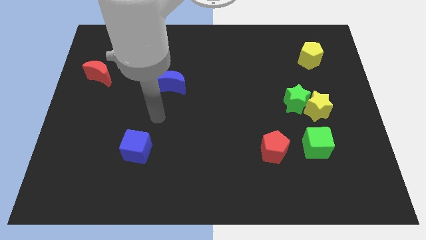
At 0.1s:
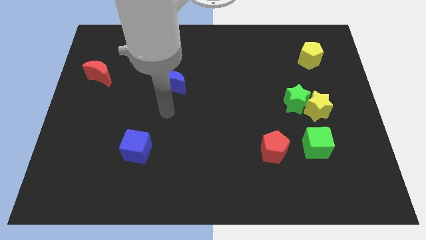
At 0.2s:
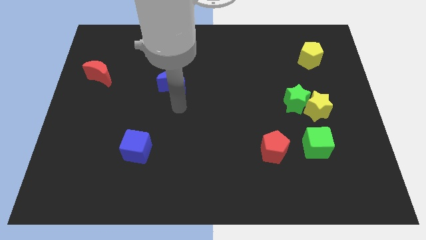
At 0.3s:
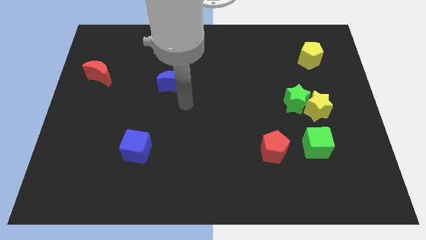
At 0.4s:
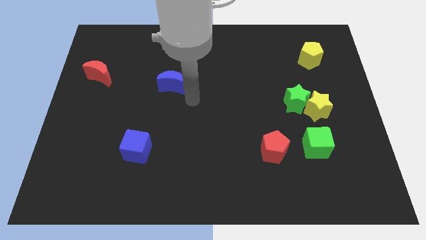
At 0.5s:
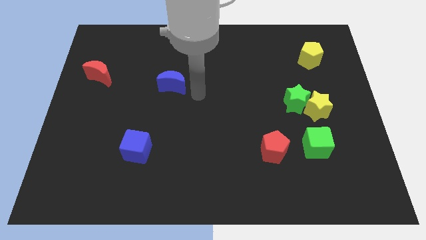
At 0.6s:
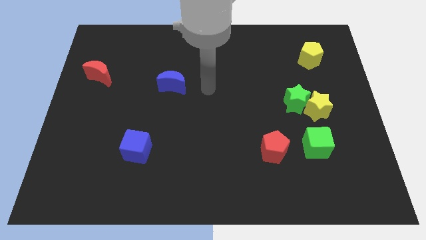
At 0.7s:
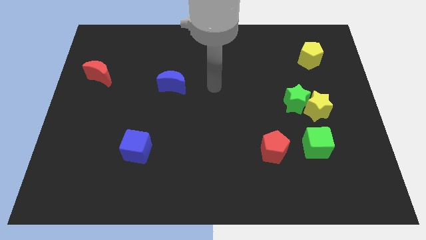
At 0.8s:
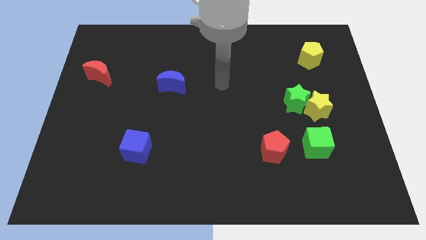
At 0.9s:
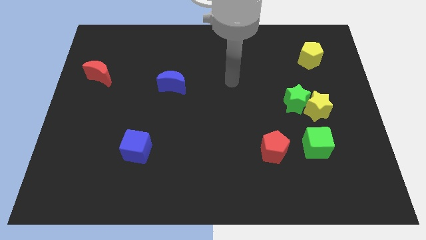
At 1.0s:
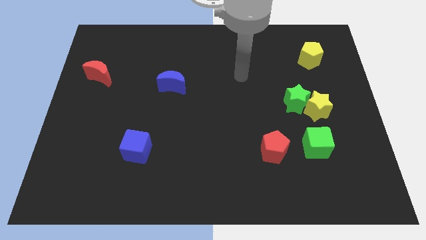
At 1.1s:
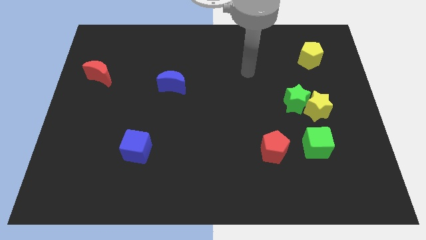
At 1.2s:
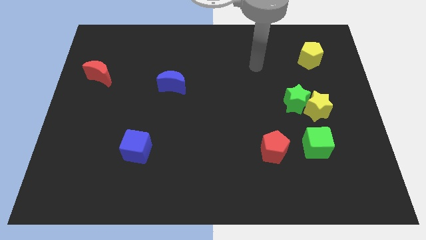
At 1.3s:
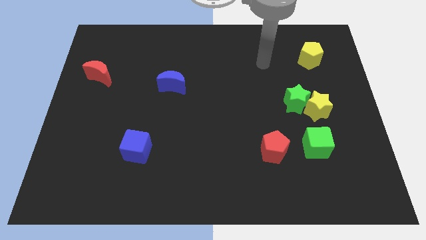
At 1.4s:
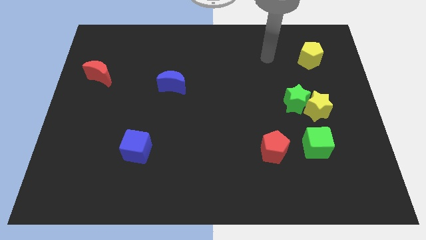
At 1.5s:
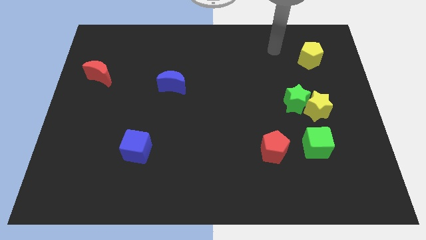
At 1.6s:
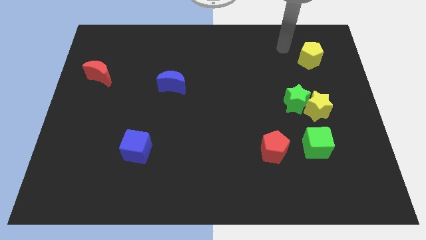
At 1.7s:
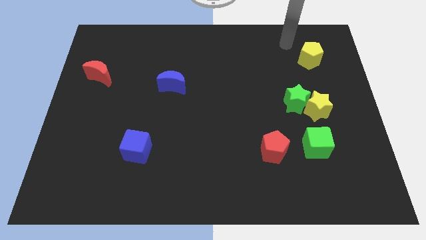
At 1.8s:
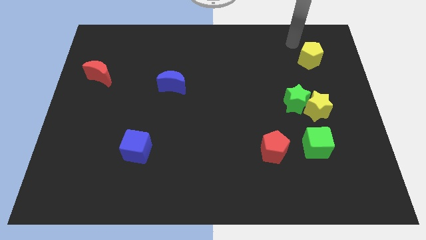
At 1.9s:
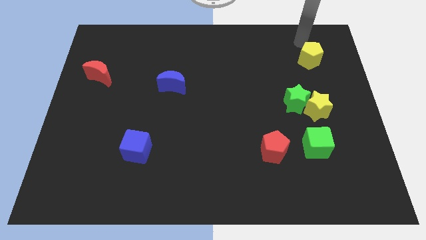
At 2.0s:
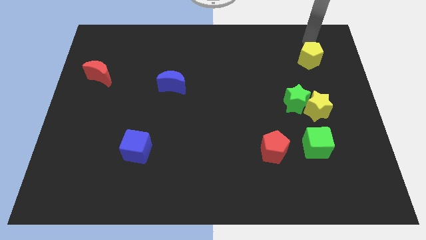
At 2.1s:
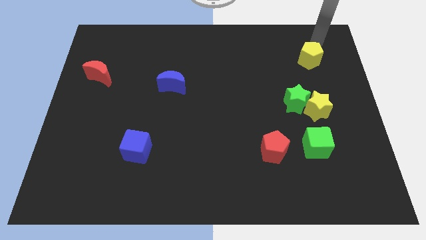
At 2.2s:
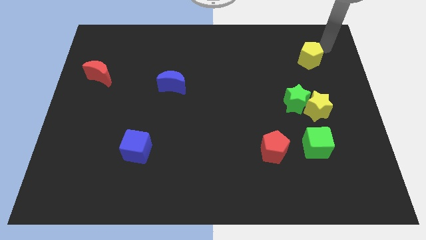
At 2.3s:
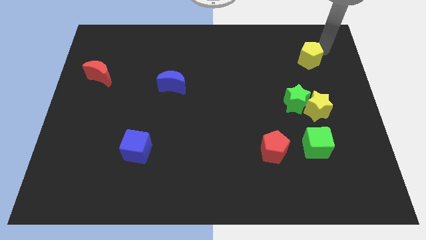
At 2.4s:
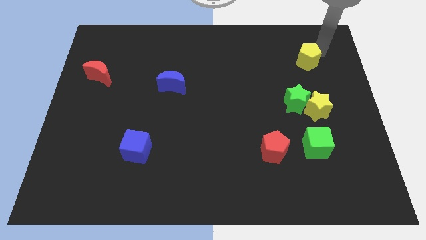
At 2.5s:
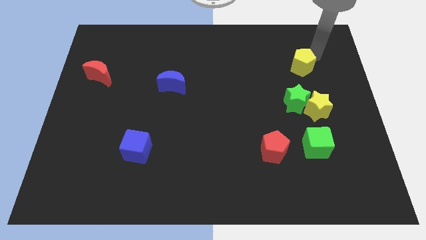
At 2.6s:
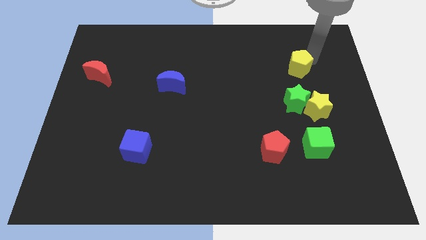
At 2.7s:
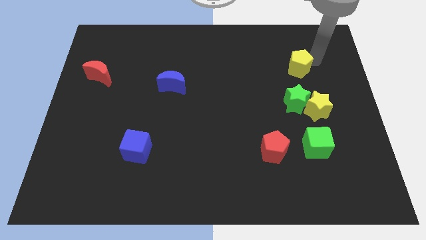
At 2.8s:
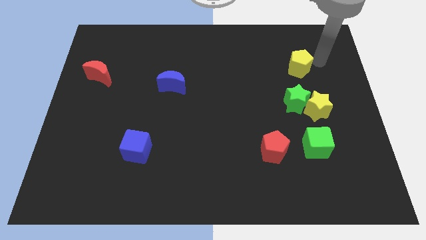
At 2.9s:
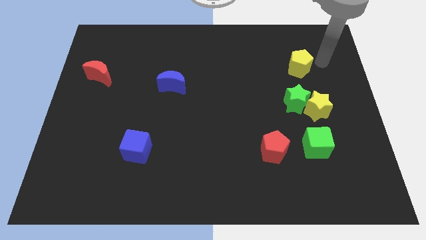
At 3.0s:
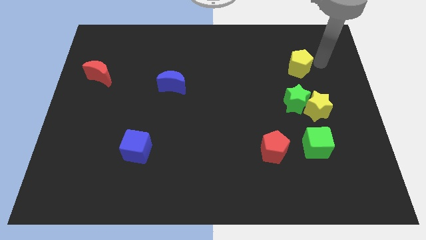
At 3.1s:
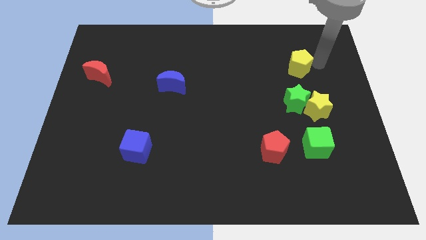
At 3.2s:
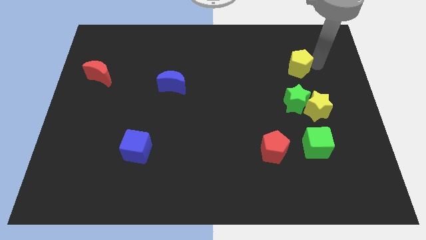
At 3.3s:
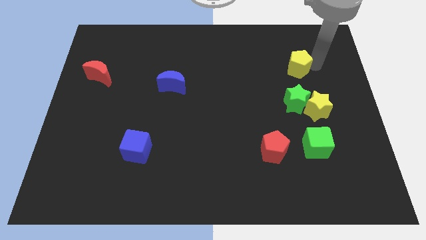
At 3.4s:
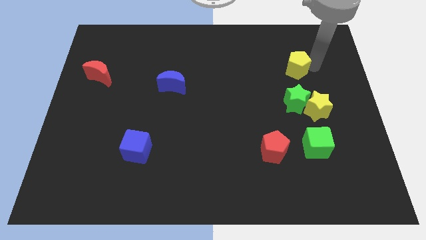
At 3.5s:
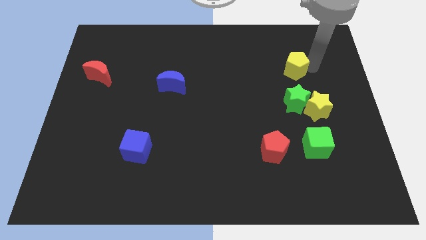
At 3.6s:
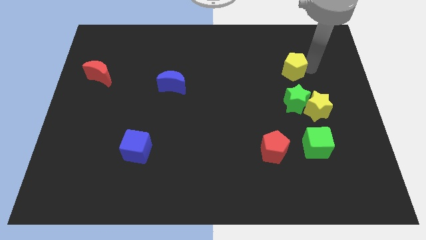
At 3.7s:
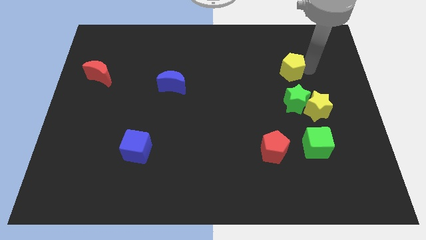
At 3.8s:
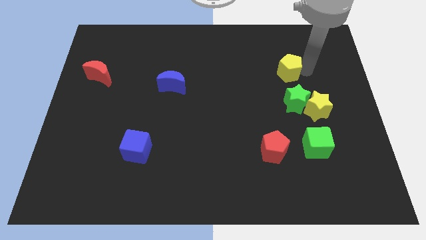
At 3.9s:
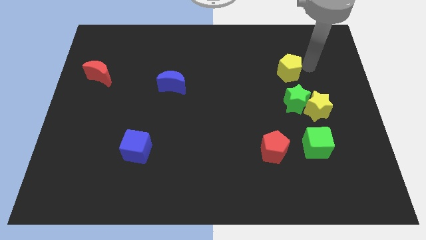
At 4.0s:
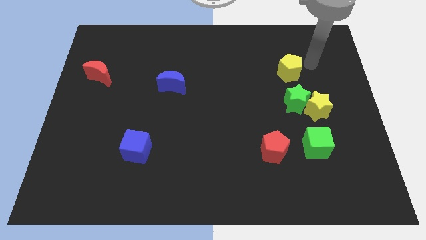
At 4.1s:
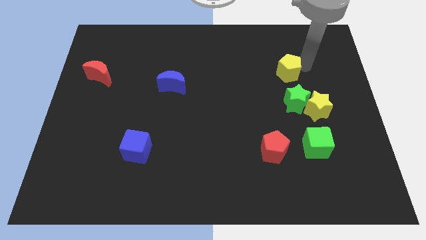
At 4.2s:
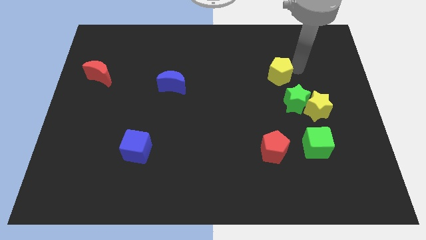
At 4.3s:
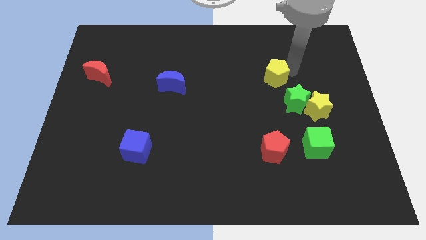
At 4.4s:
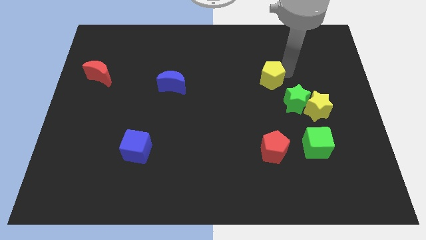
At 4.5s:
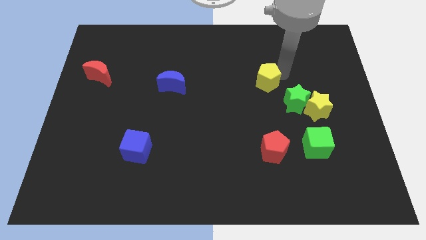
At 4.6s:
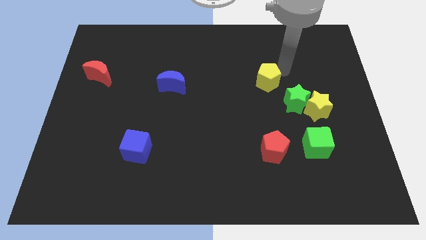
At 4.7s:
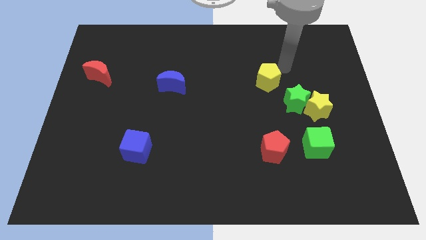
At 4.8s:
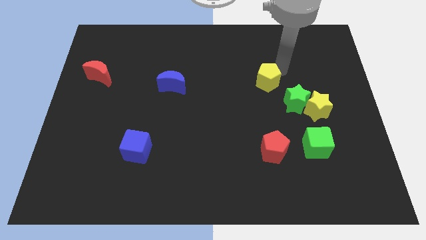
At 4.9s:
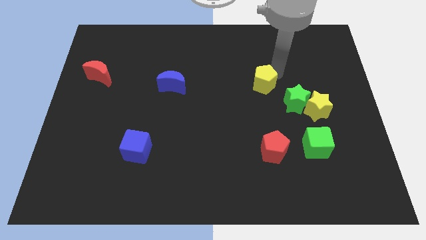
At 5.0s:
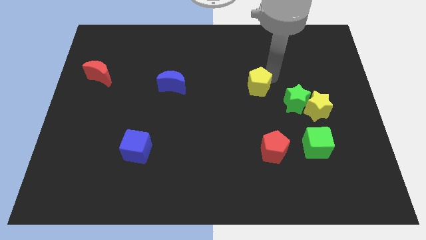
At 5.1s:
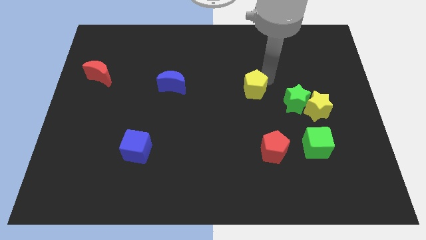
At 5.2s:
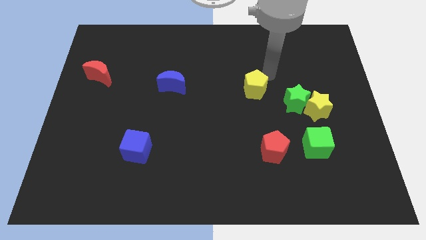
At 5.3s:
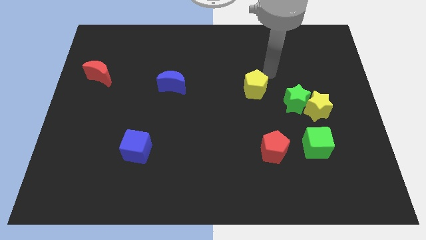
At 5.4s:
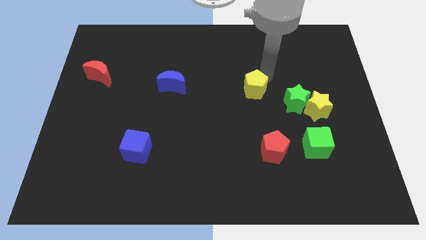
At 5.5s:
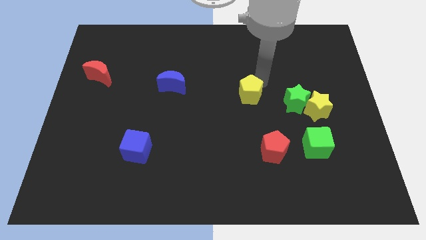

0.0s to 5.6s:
move the yellow pentagon downwards and to the left diagonally

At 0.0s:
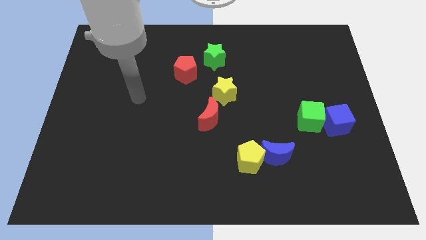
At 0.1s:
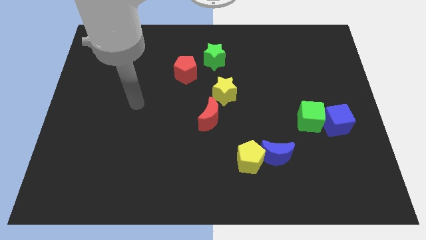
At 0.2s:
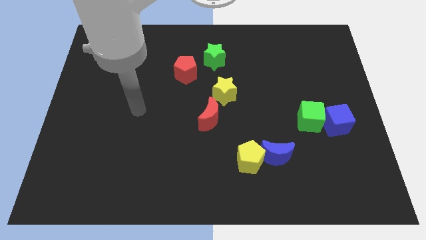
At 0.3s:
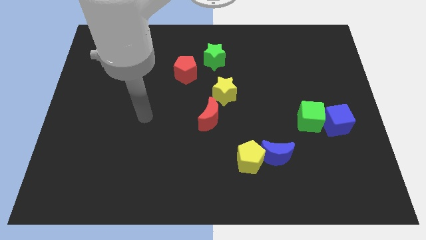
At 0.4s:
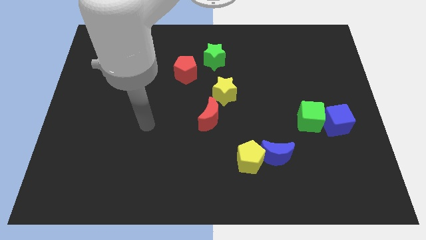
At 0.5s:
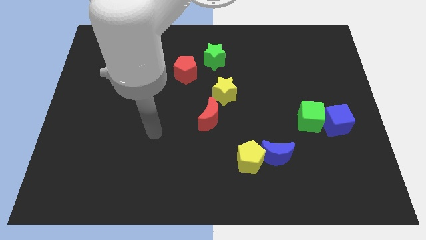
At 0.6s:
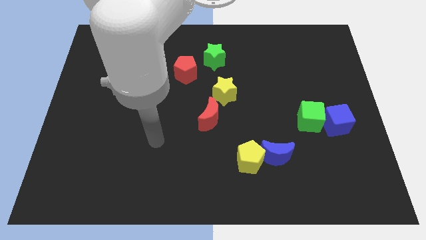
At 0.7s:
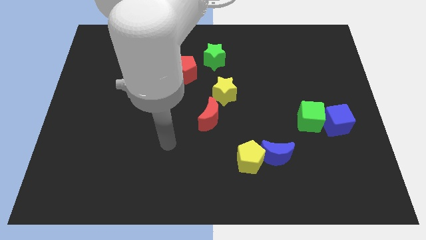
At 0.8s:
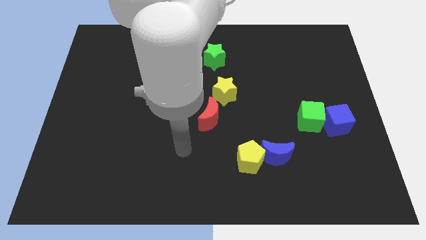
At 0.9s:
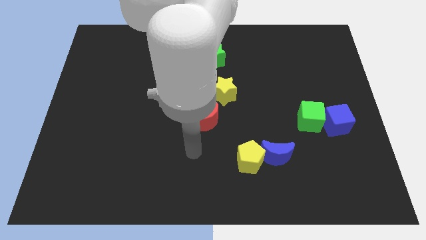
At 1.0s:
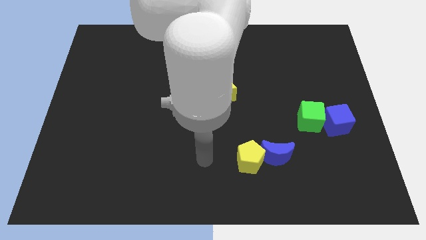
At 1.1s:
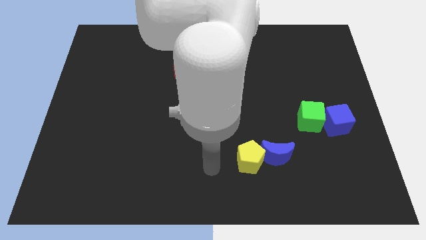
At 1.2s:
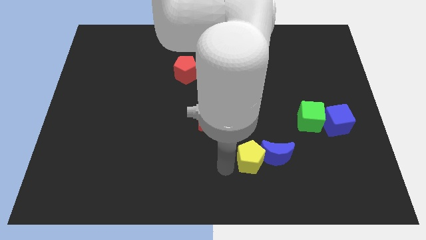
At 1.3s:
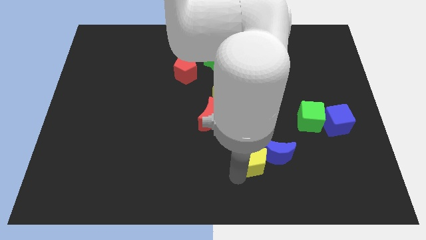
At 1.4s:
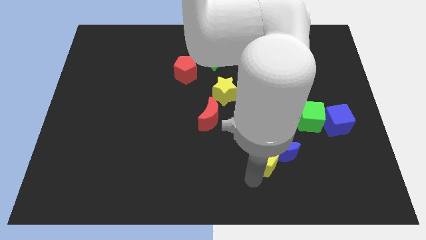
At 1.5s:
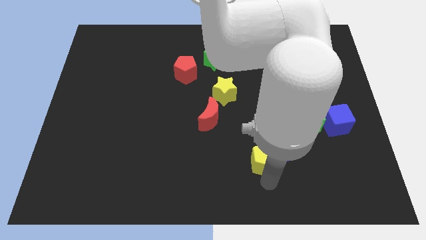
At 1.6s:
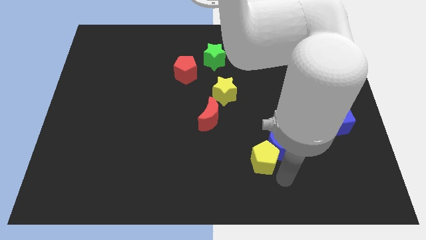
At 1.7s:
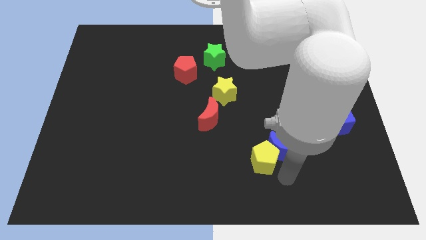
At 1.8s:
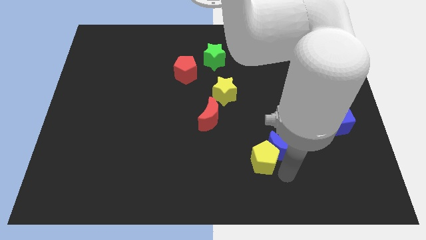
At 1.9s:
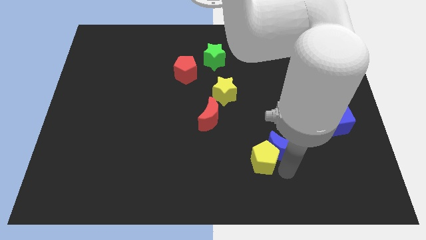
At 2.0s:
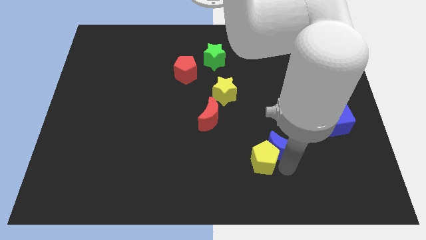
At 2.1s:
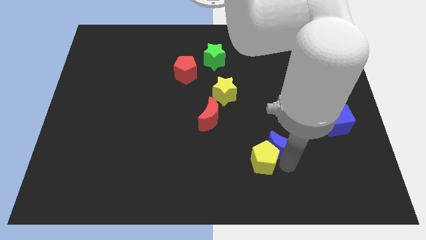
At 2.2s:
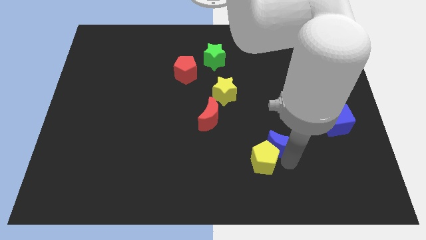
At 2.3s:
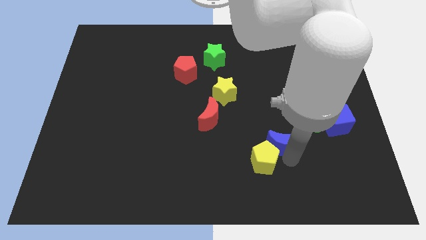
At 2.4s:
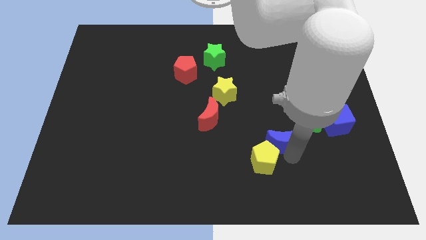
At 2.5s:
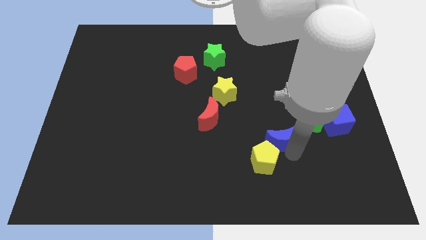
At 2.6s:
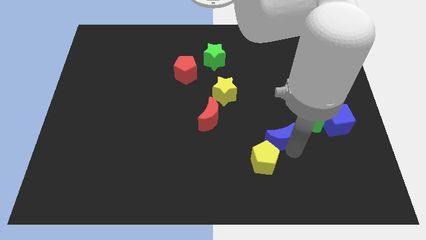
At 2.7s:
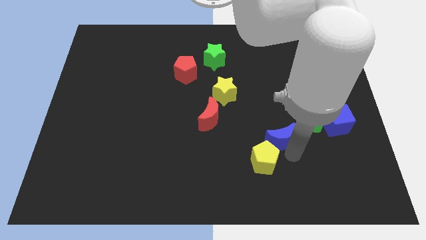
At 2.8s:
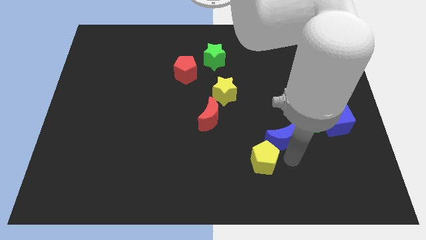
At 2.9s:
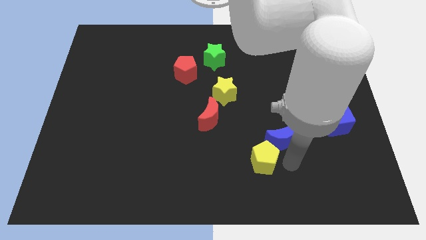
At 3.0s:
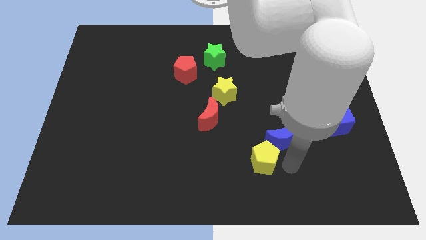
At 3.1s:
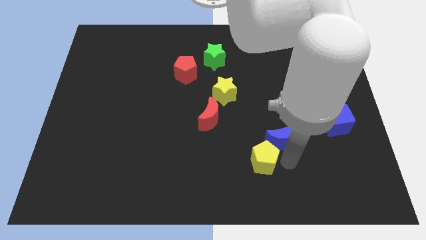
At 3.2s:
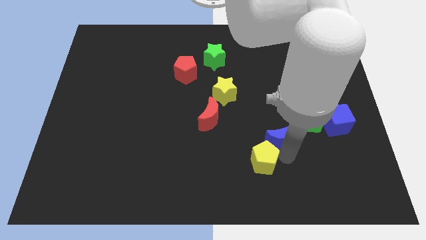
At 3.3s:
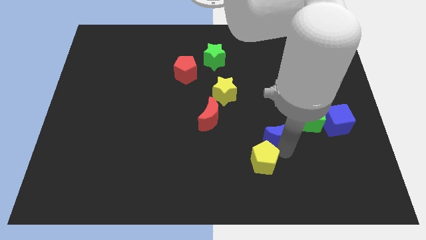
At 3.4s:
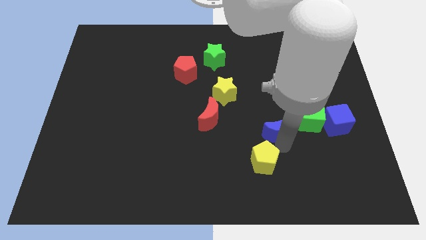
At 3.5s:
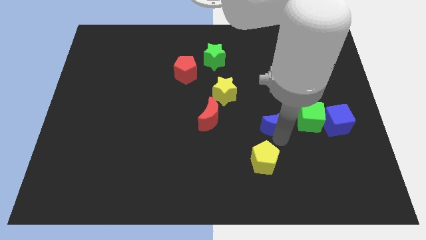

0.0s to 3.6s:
slide the blue moon a little up
